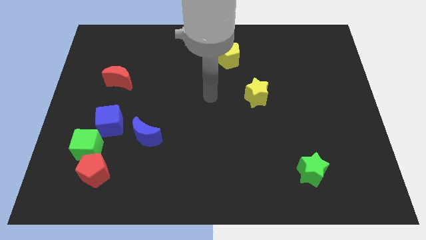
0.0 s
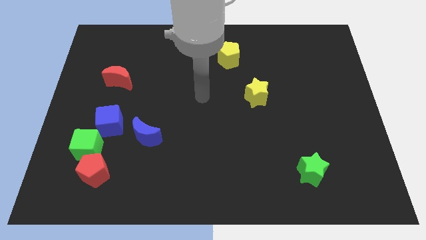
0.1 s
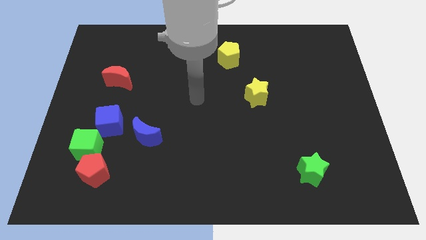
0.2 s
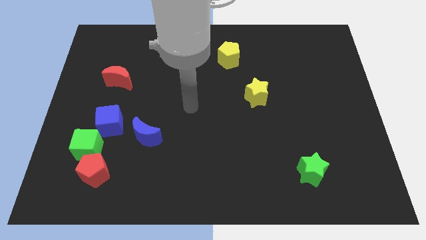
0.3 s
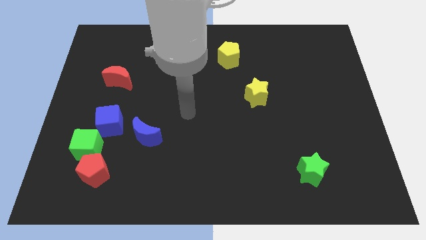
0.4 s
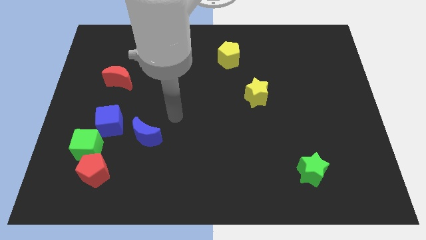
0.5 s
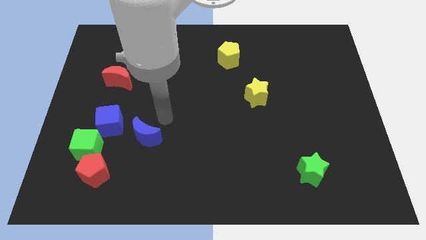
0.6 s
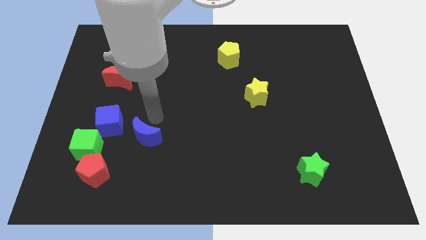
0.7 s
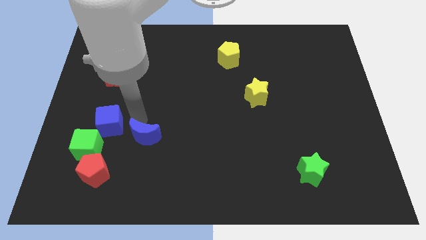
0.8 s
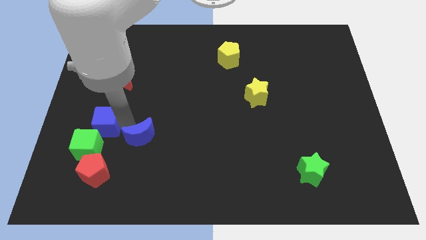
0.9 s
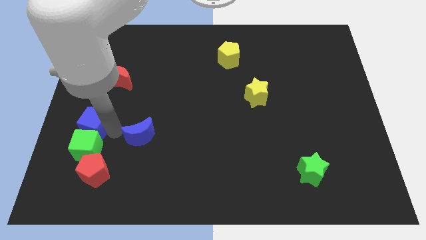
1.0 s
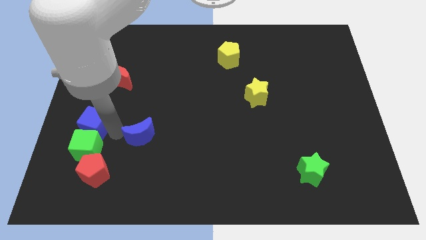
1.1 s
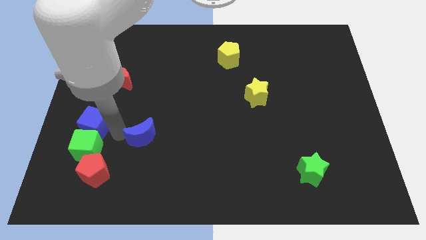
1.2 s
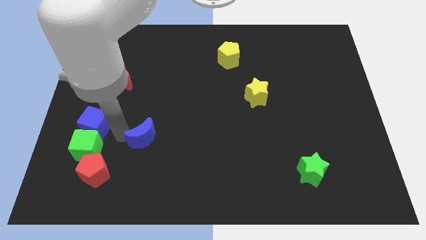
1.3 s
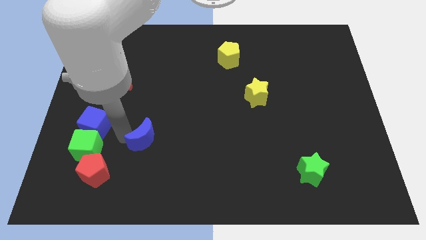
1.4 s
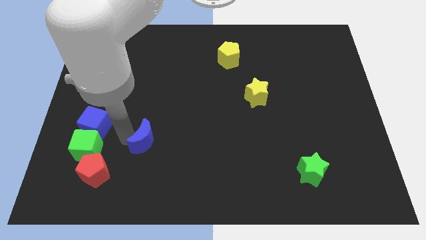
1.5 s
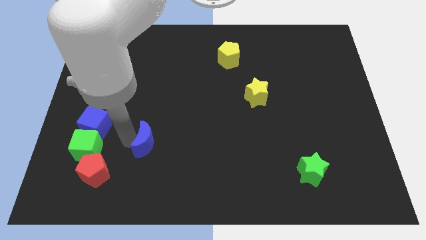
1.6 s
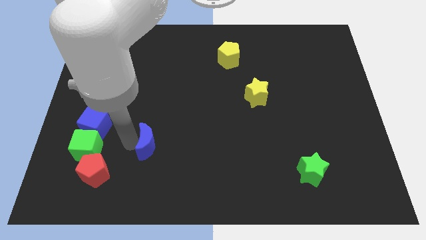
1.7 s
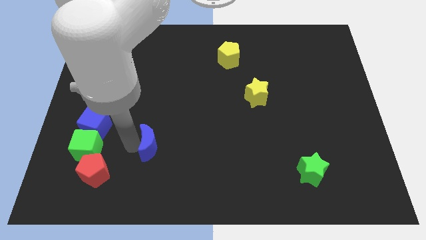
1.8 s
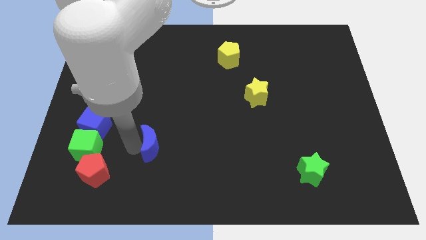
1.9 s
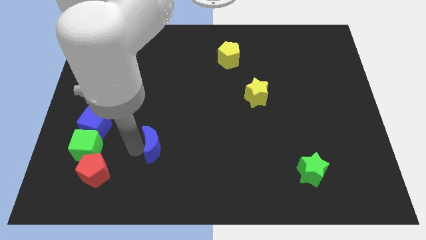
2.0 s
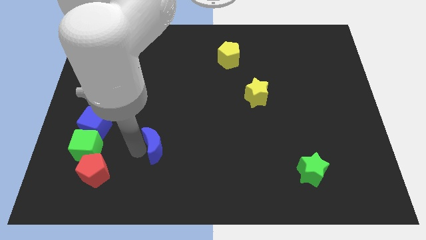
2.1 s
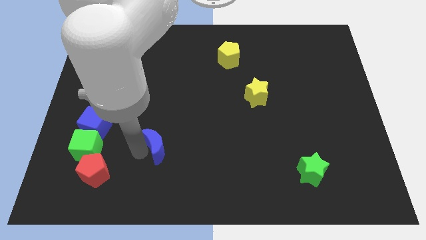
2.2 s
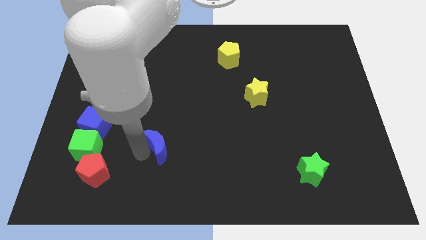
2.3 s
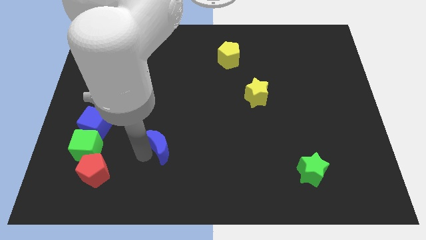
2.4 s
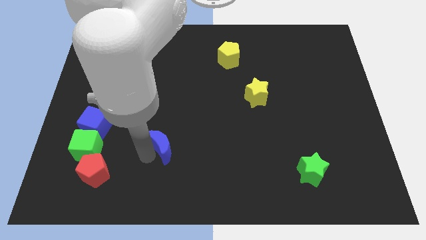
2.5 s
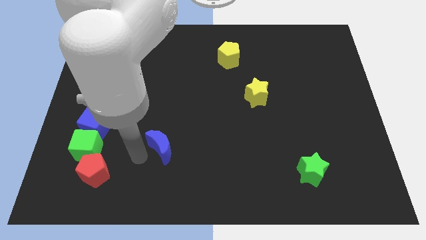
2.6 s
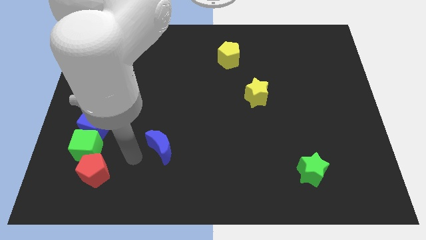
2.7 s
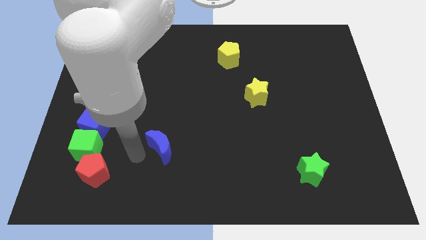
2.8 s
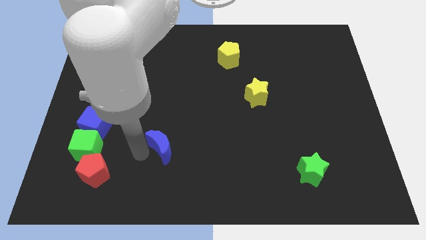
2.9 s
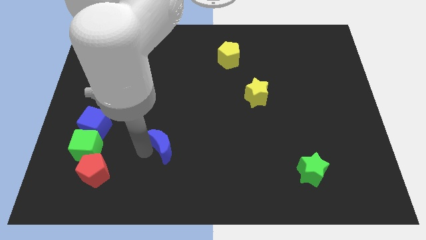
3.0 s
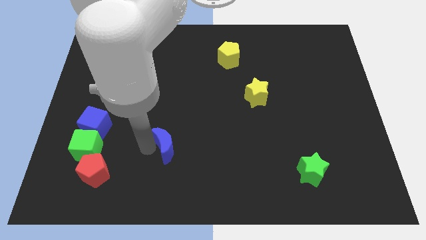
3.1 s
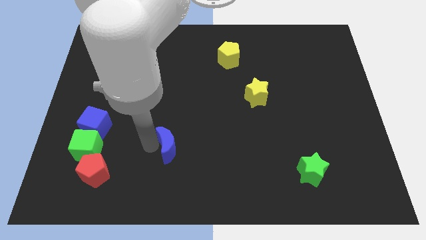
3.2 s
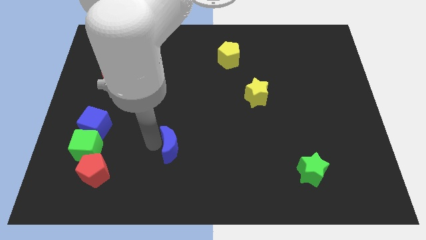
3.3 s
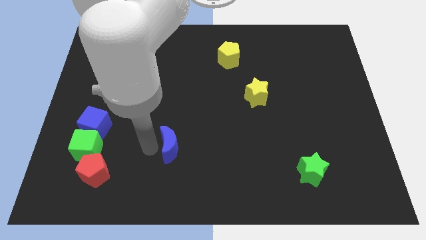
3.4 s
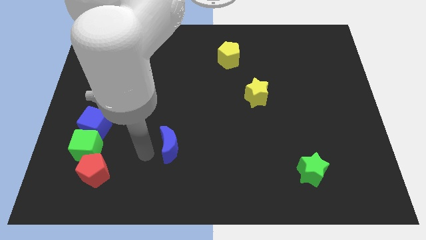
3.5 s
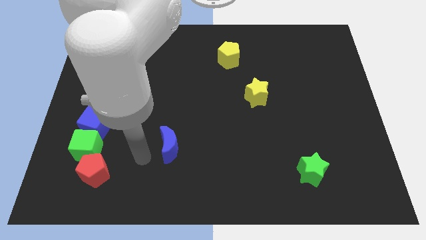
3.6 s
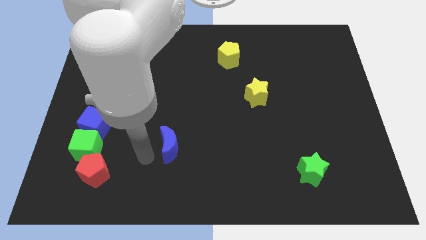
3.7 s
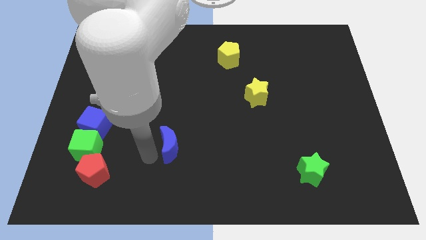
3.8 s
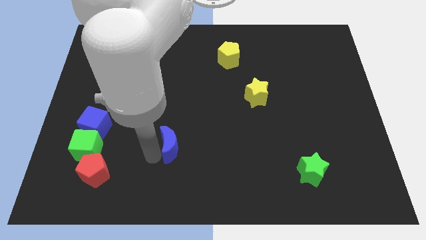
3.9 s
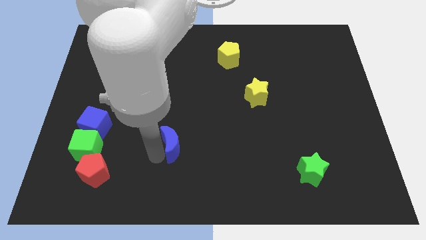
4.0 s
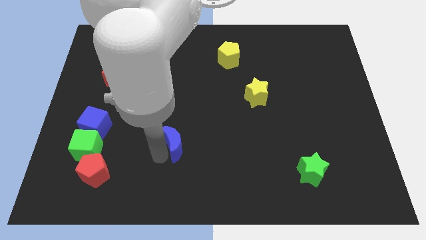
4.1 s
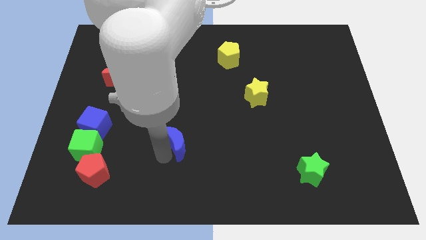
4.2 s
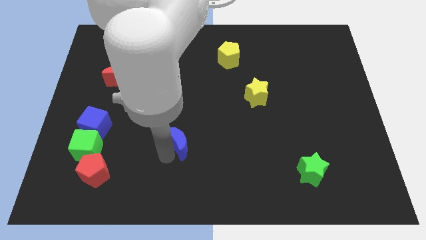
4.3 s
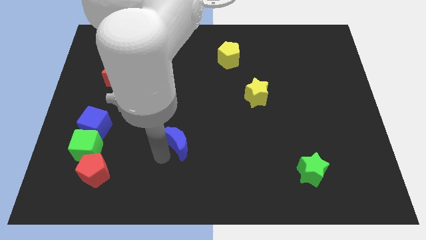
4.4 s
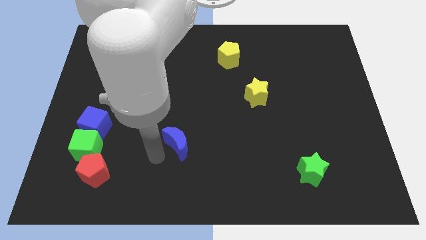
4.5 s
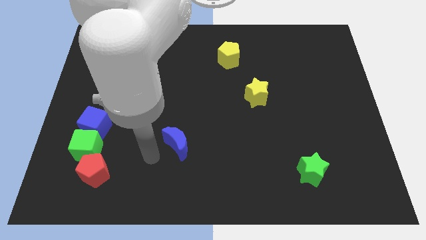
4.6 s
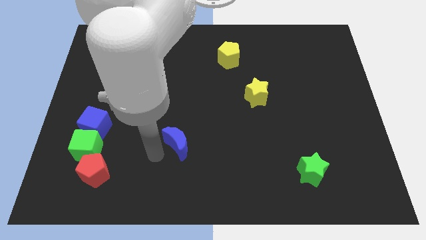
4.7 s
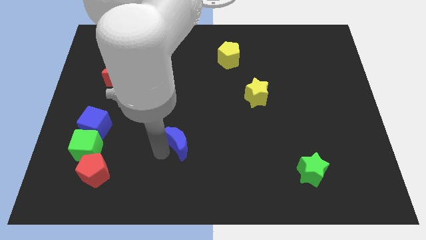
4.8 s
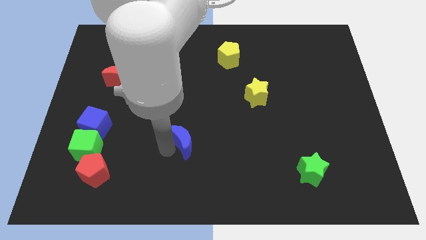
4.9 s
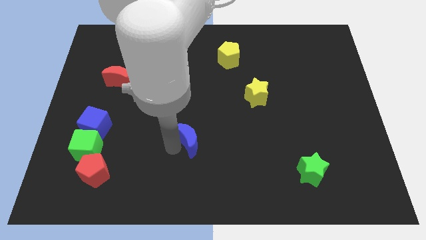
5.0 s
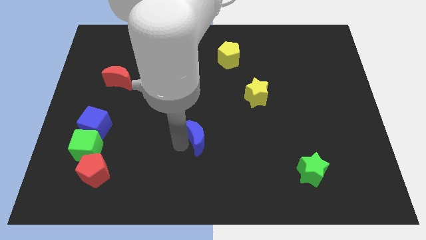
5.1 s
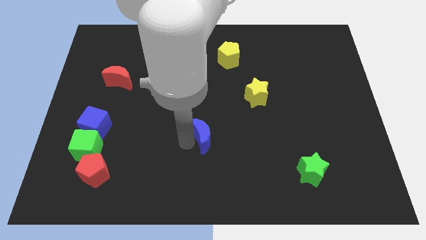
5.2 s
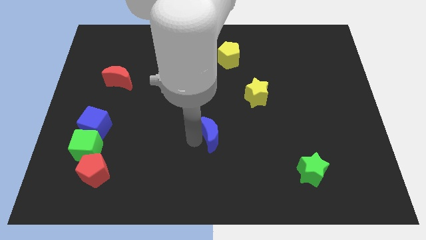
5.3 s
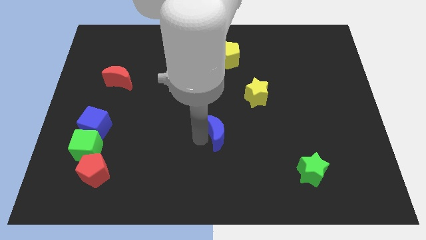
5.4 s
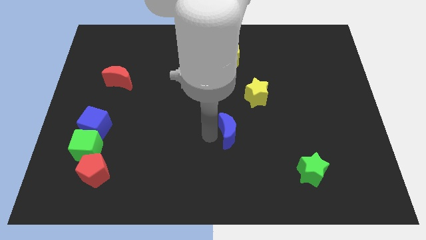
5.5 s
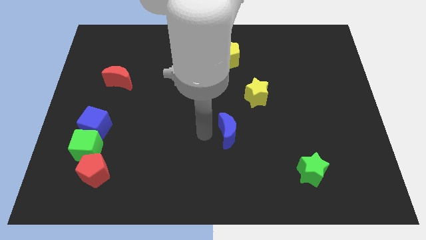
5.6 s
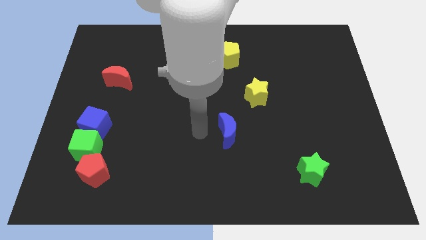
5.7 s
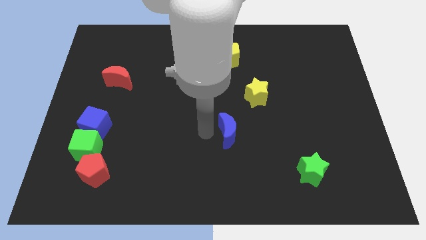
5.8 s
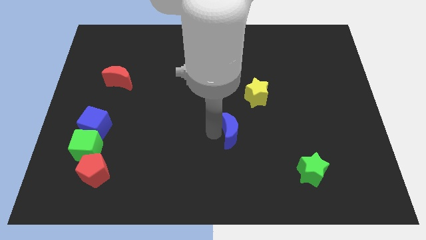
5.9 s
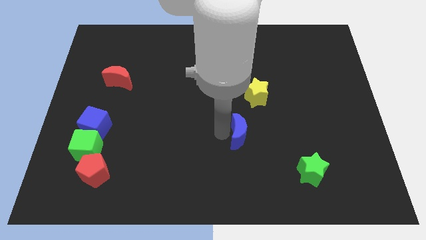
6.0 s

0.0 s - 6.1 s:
slide the blue moon right

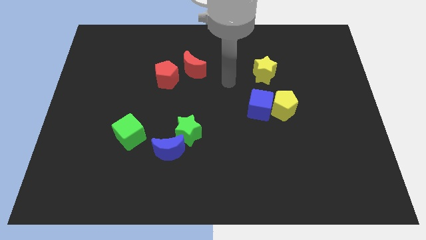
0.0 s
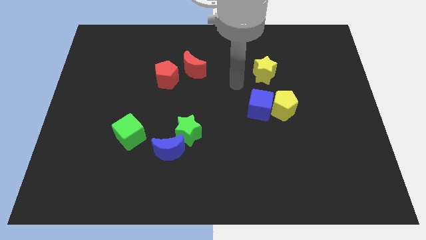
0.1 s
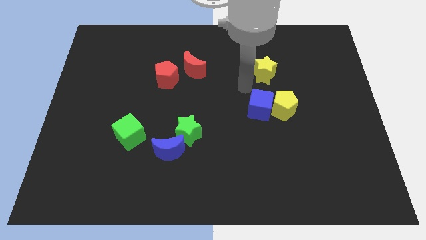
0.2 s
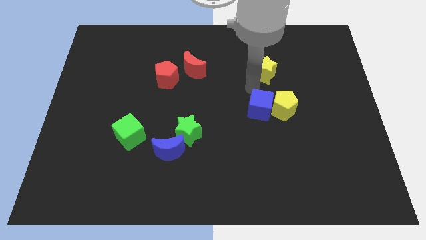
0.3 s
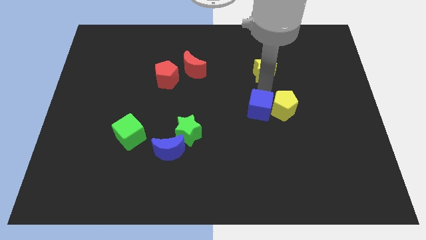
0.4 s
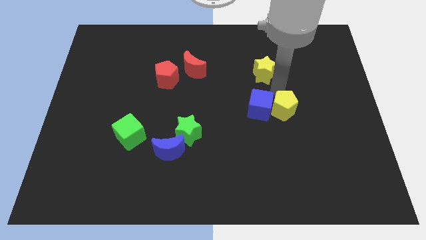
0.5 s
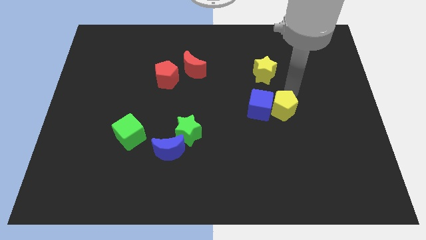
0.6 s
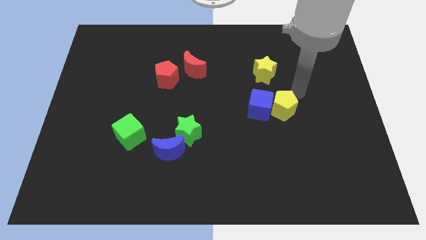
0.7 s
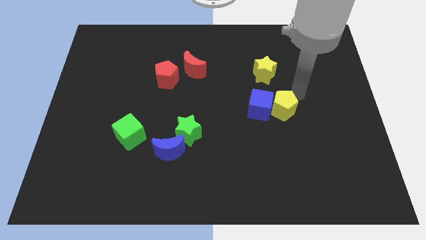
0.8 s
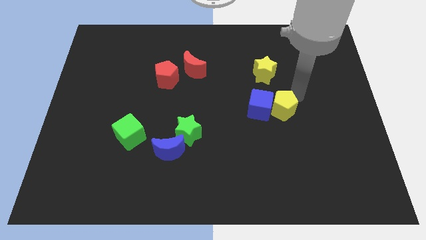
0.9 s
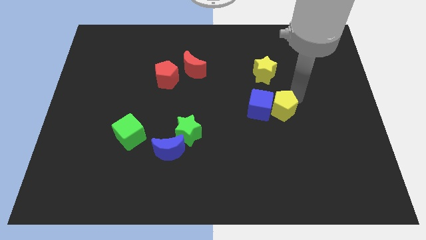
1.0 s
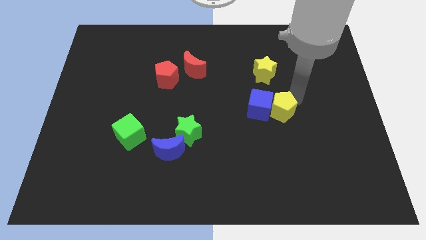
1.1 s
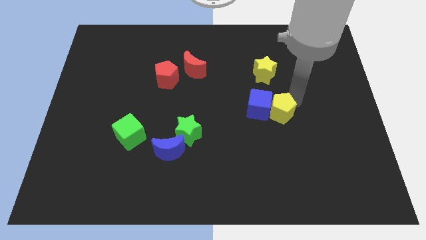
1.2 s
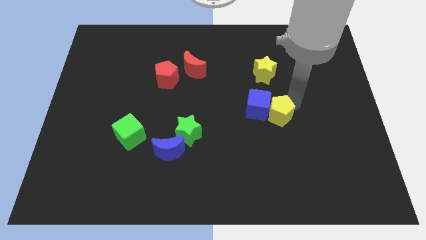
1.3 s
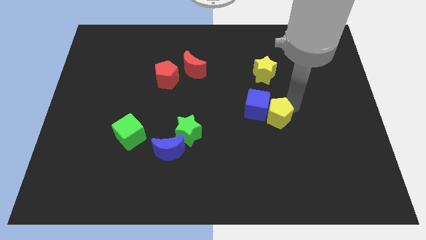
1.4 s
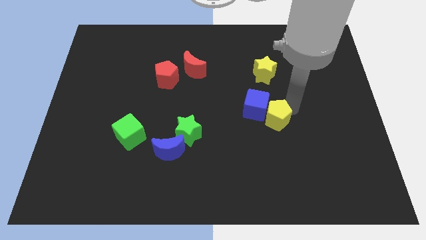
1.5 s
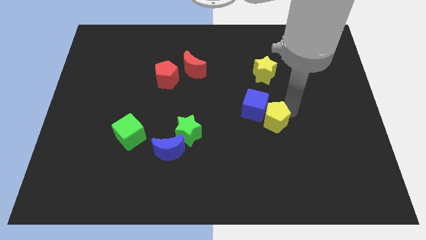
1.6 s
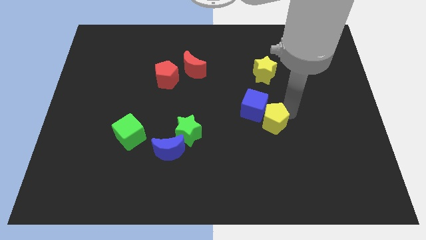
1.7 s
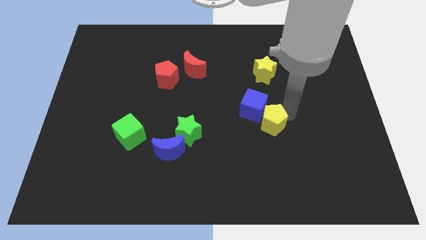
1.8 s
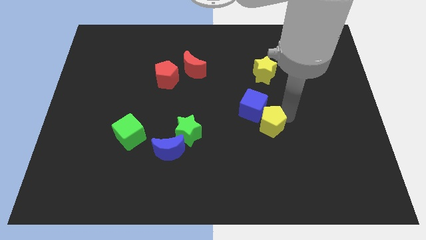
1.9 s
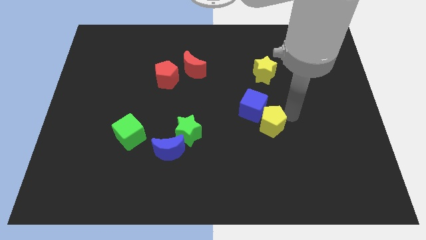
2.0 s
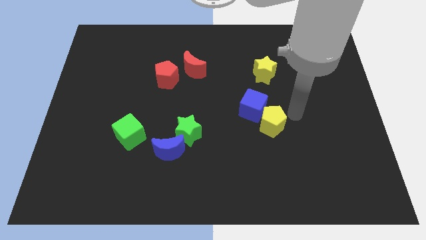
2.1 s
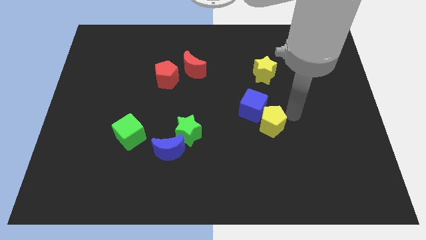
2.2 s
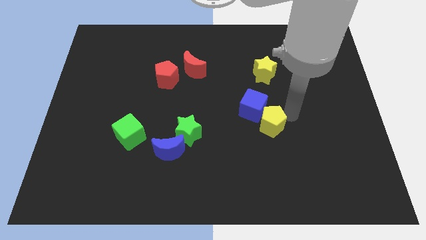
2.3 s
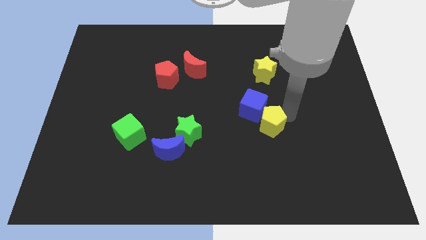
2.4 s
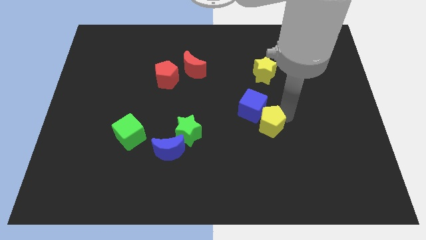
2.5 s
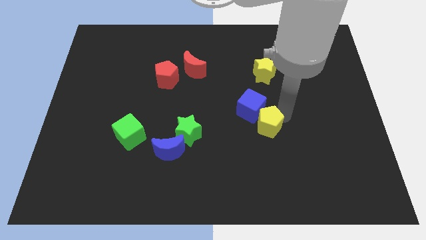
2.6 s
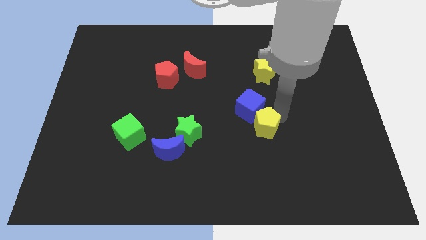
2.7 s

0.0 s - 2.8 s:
slide the yellow pentagon a bit downwards and then left
